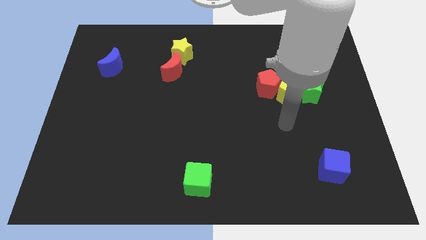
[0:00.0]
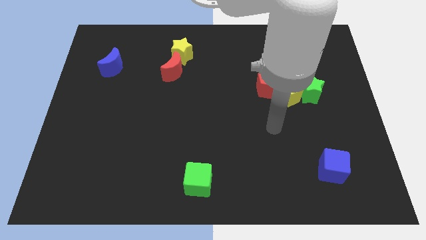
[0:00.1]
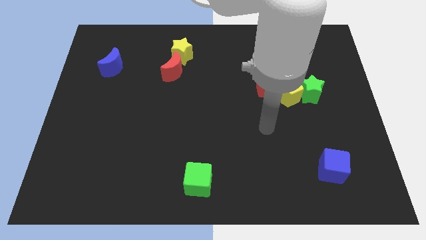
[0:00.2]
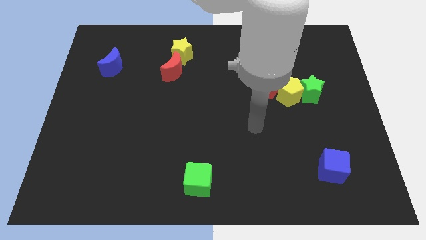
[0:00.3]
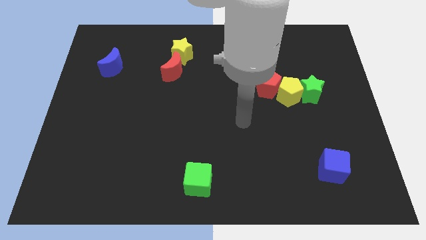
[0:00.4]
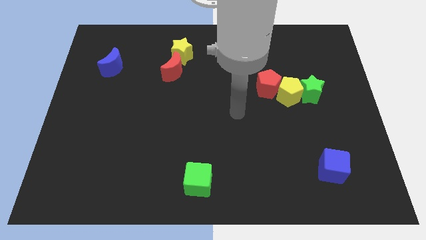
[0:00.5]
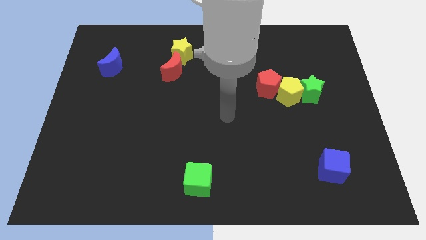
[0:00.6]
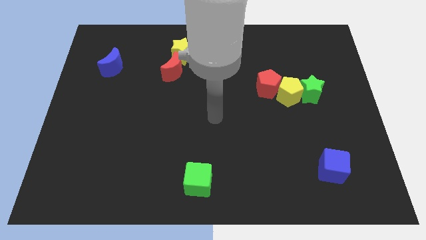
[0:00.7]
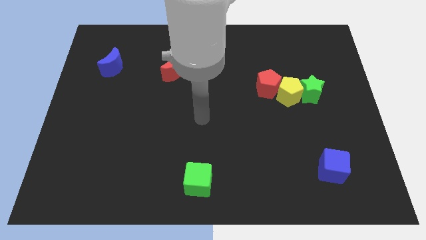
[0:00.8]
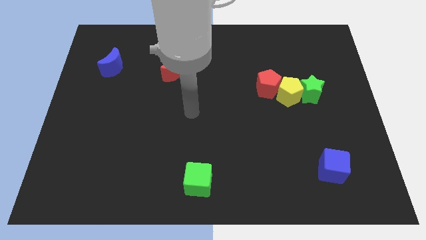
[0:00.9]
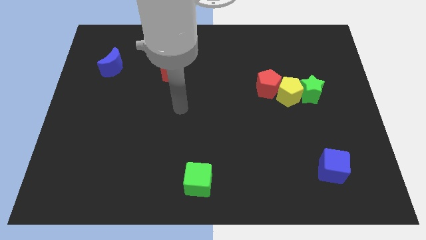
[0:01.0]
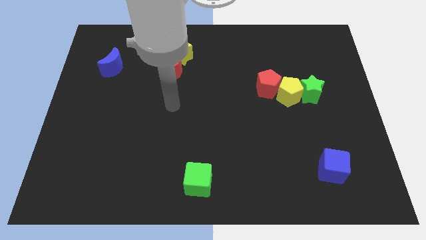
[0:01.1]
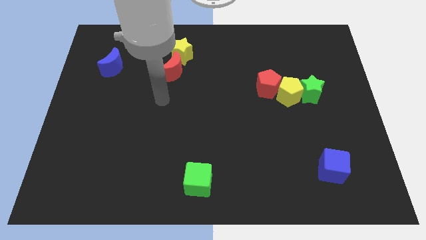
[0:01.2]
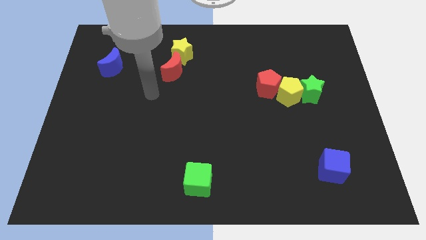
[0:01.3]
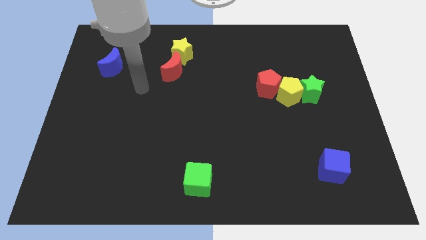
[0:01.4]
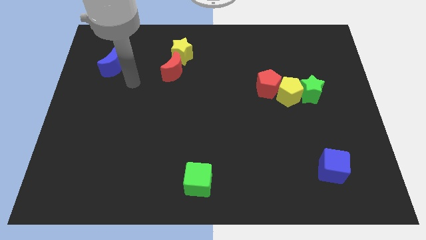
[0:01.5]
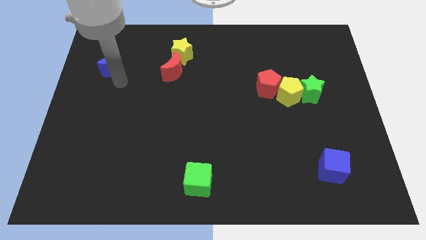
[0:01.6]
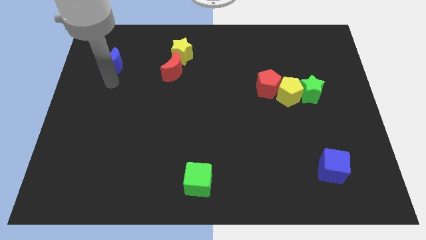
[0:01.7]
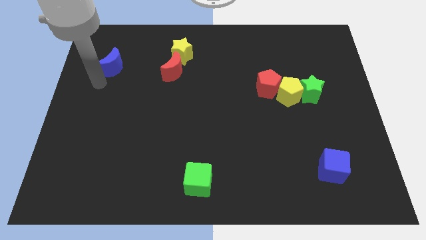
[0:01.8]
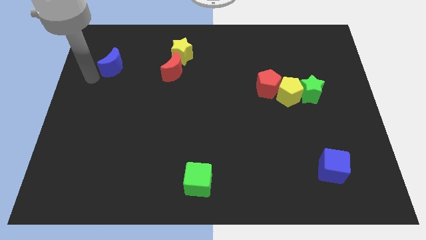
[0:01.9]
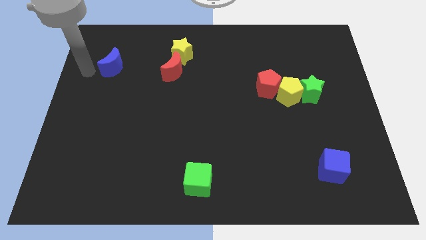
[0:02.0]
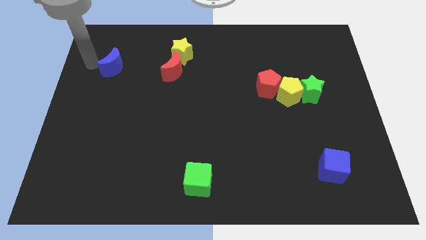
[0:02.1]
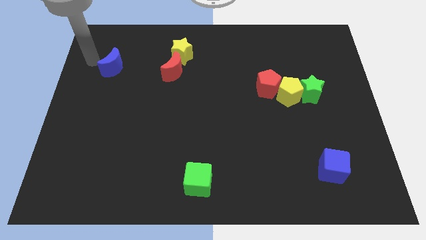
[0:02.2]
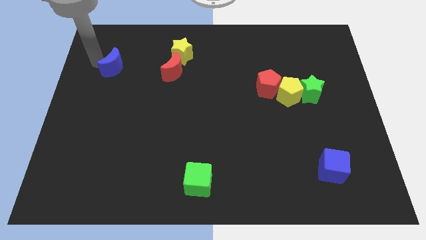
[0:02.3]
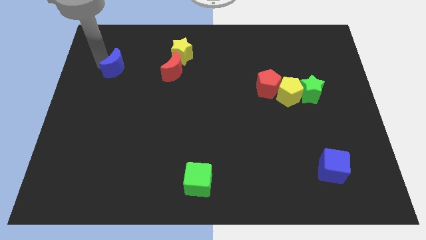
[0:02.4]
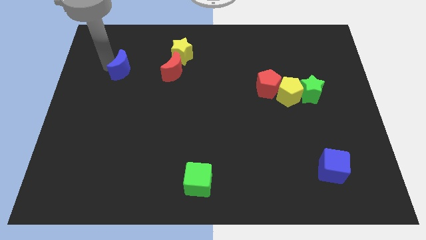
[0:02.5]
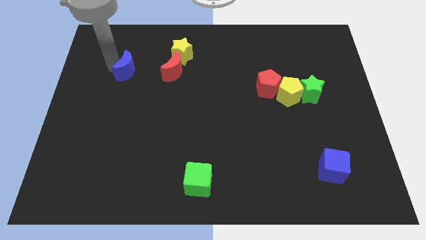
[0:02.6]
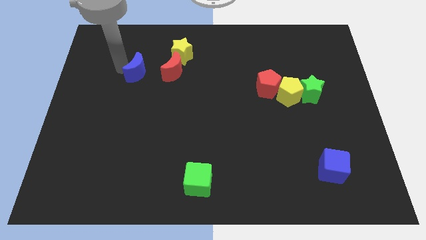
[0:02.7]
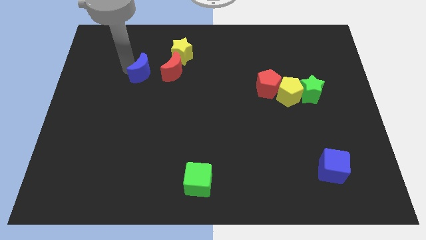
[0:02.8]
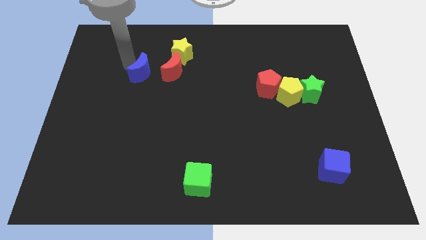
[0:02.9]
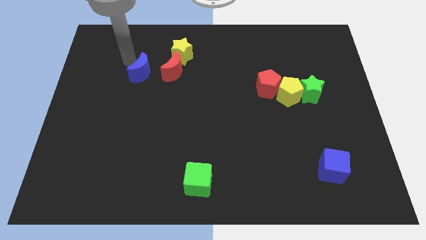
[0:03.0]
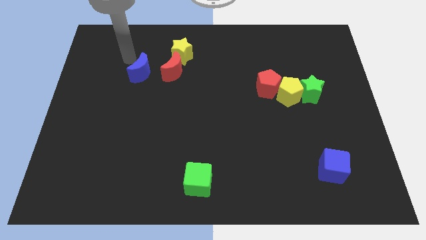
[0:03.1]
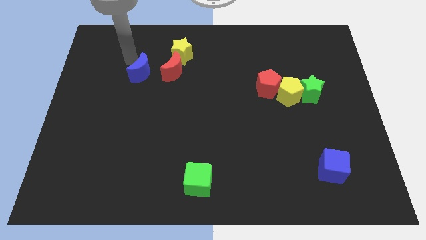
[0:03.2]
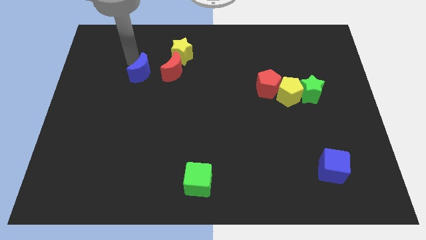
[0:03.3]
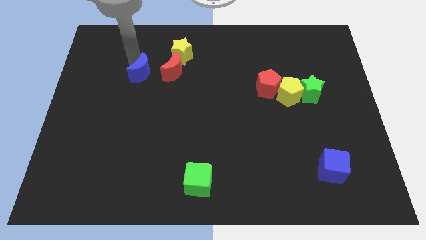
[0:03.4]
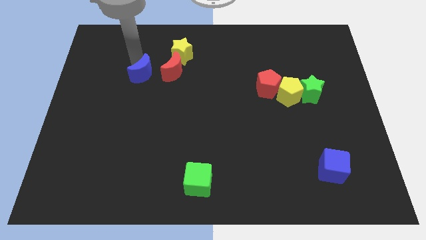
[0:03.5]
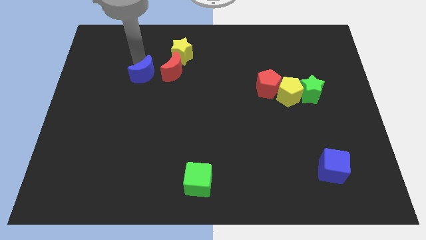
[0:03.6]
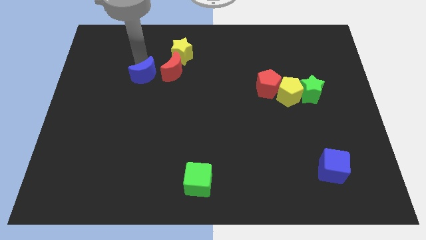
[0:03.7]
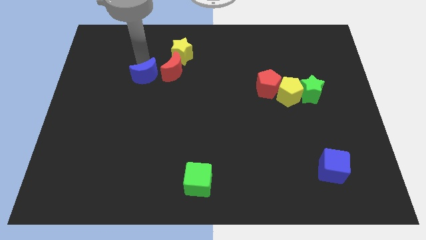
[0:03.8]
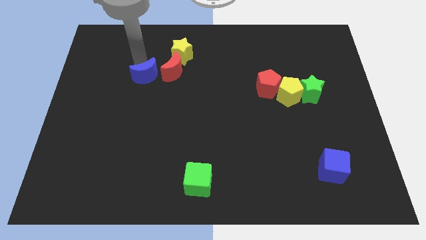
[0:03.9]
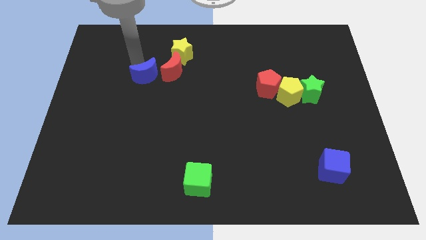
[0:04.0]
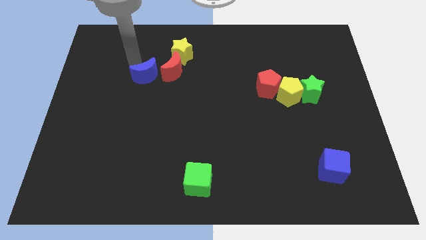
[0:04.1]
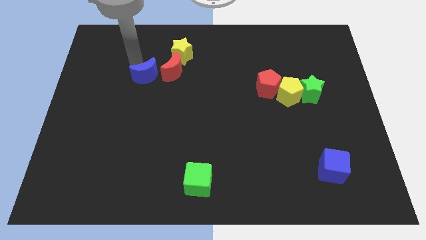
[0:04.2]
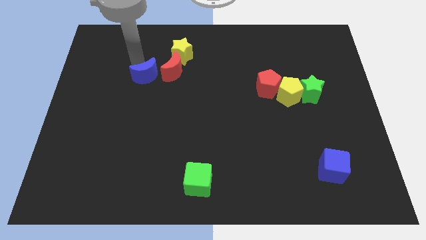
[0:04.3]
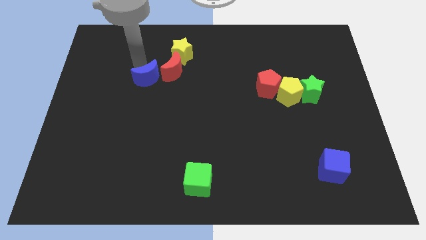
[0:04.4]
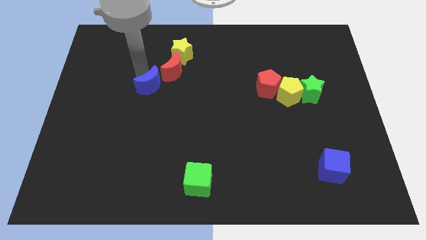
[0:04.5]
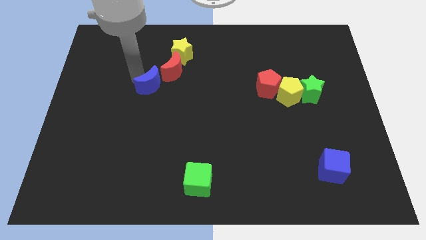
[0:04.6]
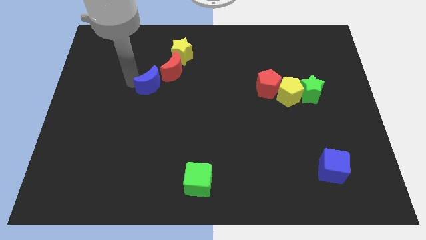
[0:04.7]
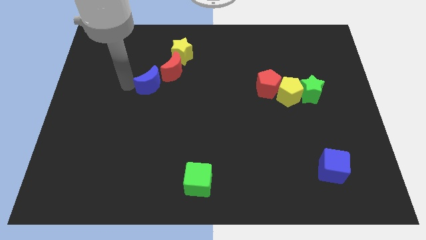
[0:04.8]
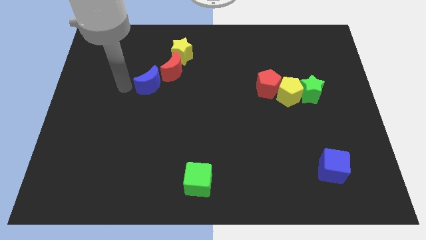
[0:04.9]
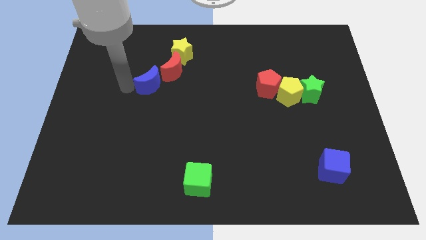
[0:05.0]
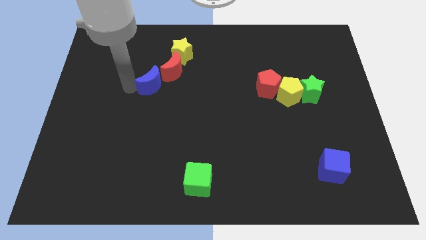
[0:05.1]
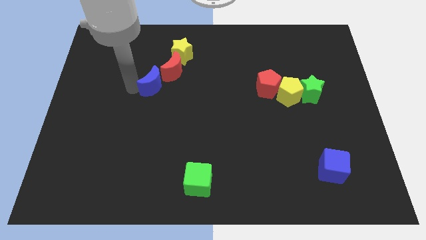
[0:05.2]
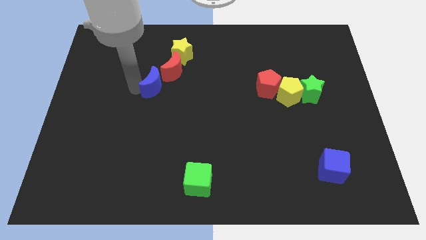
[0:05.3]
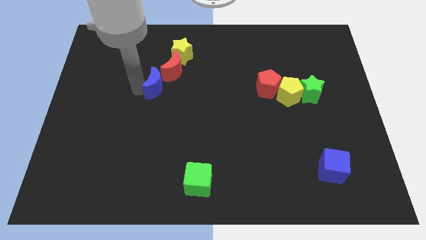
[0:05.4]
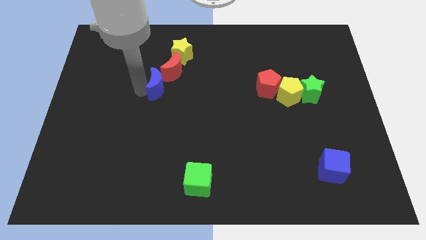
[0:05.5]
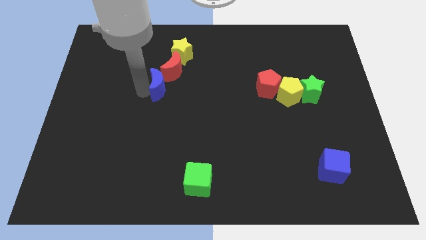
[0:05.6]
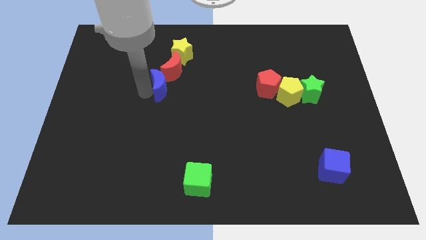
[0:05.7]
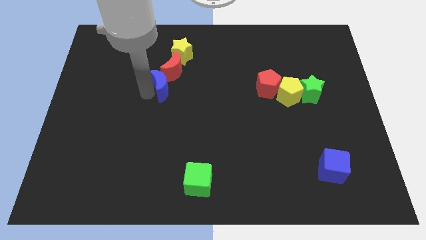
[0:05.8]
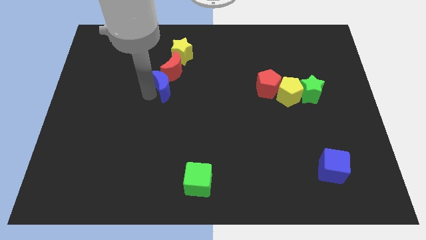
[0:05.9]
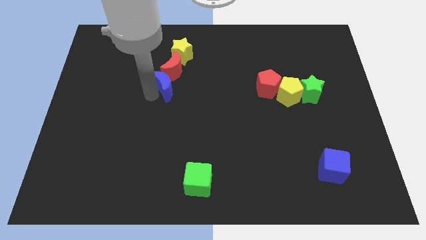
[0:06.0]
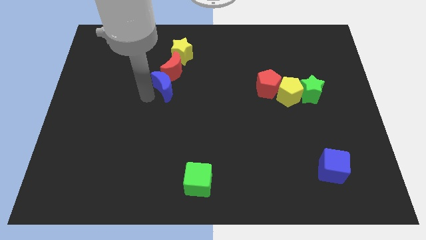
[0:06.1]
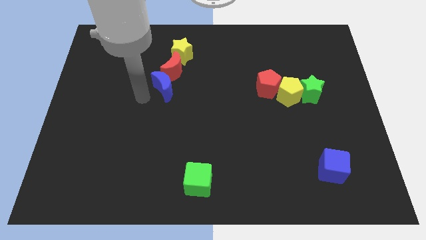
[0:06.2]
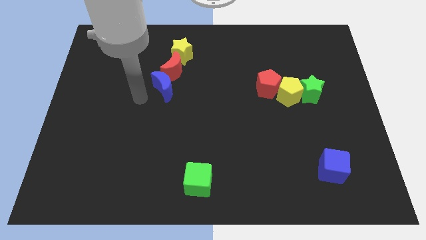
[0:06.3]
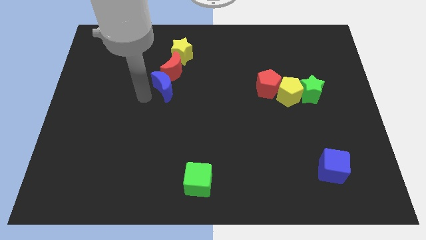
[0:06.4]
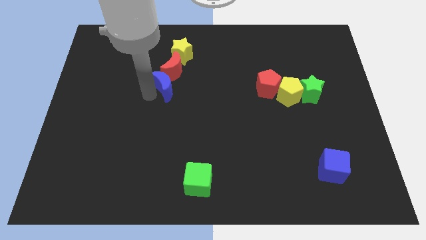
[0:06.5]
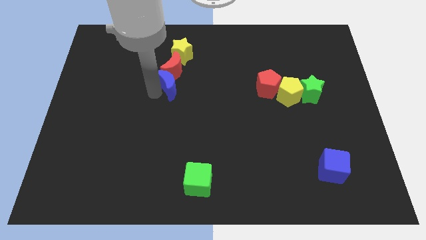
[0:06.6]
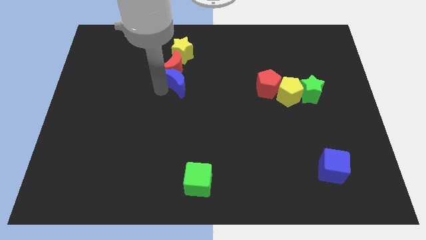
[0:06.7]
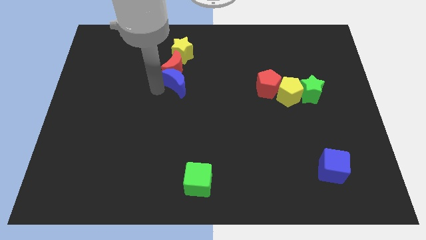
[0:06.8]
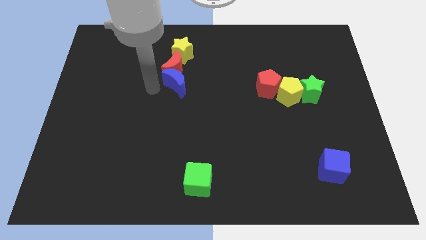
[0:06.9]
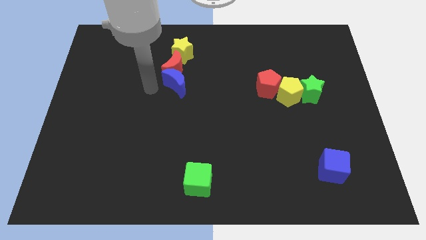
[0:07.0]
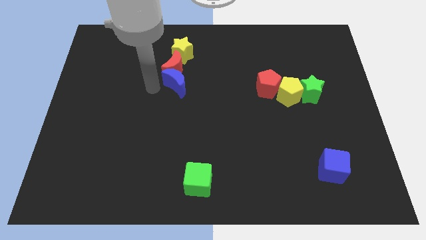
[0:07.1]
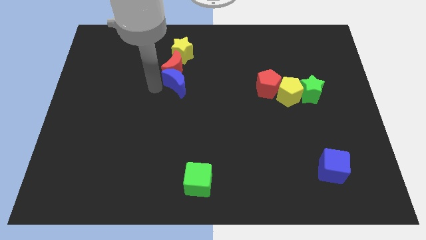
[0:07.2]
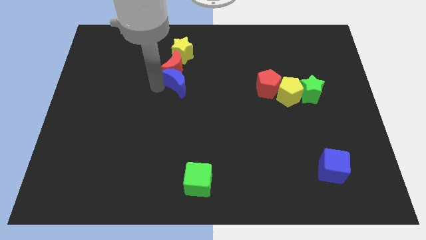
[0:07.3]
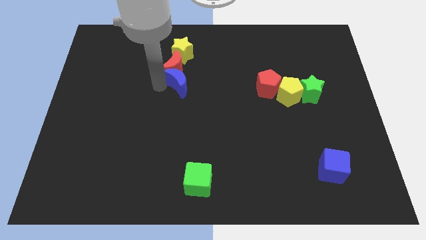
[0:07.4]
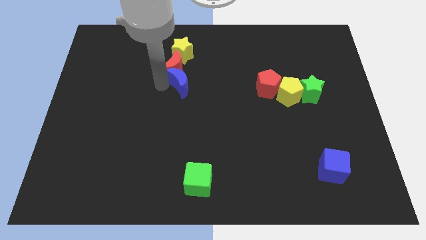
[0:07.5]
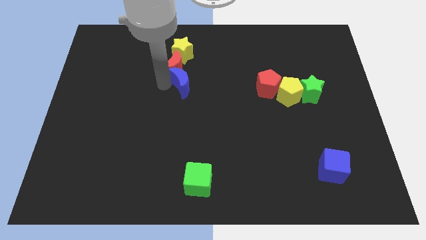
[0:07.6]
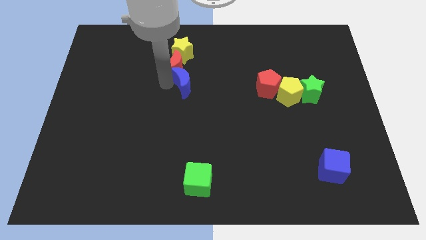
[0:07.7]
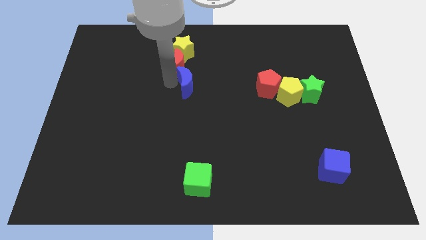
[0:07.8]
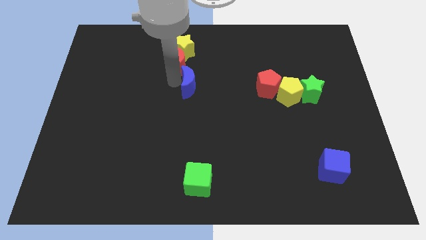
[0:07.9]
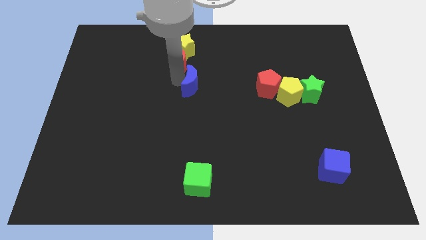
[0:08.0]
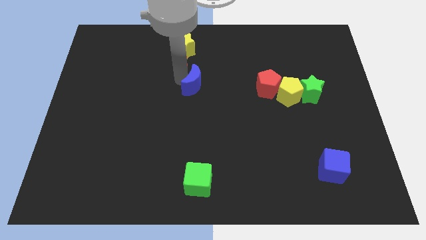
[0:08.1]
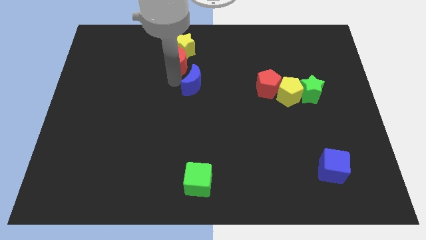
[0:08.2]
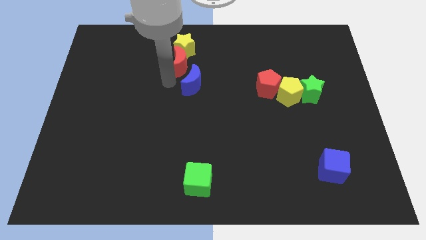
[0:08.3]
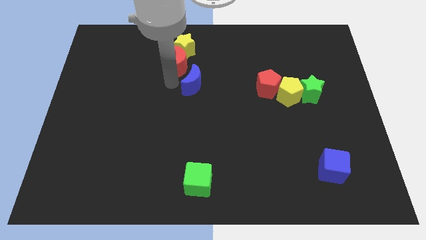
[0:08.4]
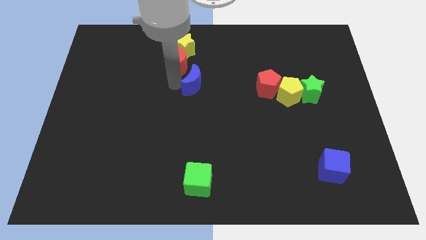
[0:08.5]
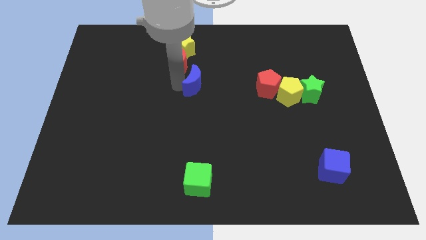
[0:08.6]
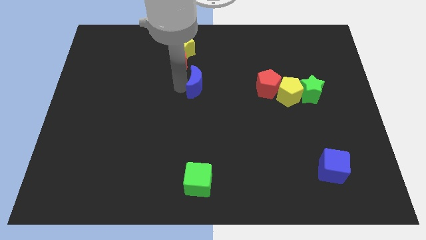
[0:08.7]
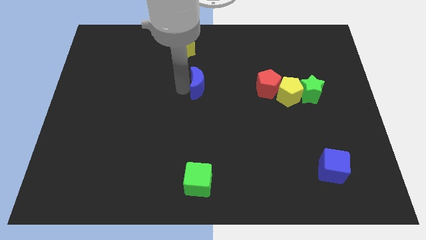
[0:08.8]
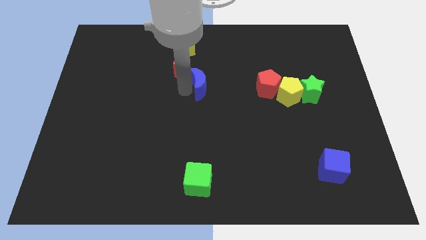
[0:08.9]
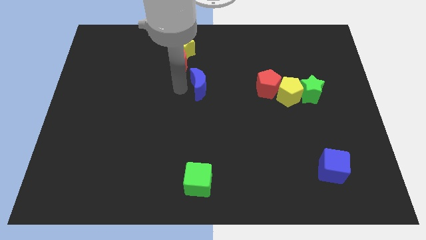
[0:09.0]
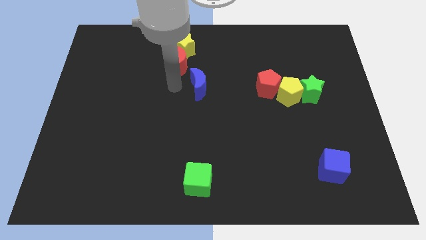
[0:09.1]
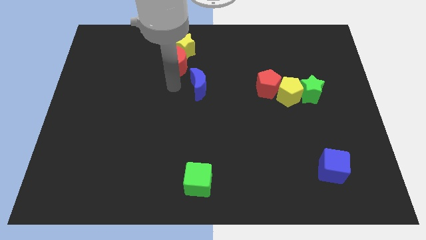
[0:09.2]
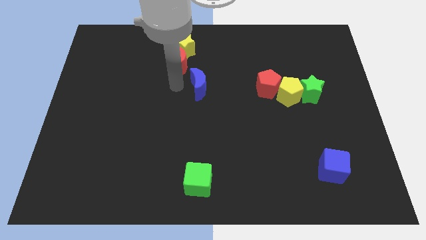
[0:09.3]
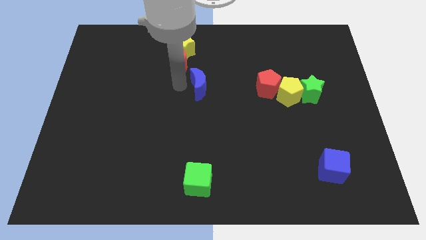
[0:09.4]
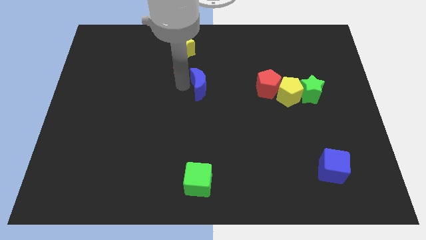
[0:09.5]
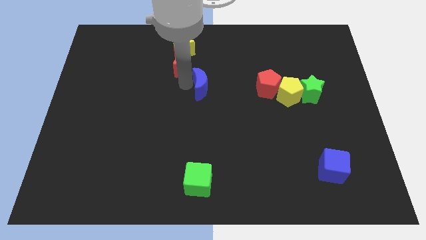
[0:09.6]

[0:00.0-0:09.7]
move the blue moon to the left side of the red pentagon
